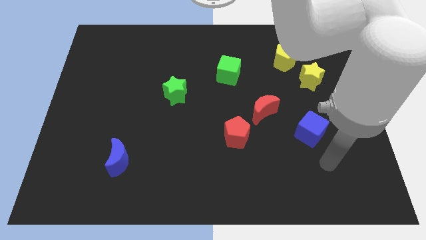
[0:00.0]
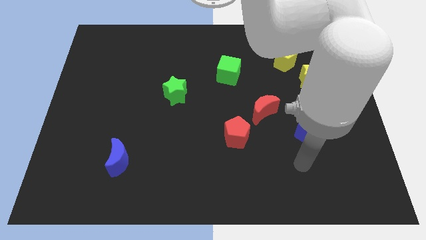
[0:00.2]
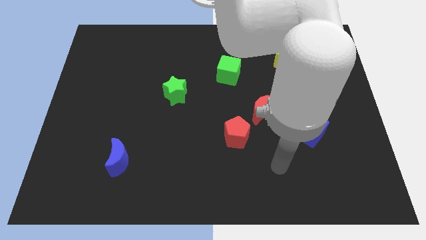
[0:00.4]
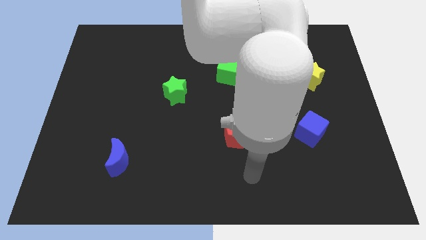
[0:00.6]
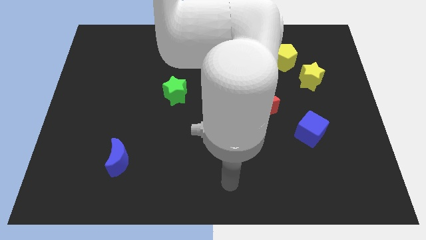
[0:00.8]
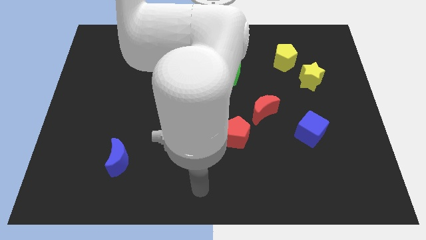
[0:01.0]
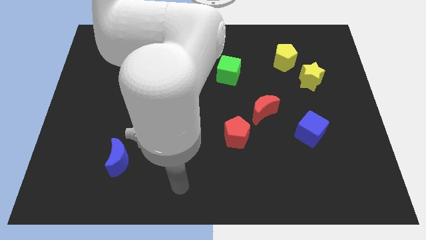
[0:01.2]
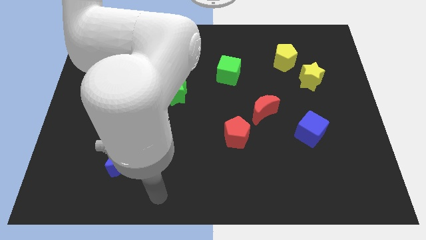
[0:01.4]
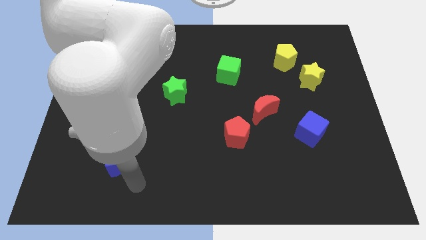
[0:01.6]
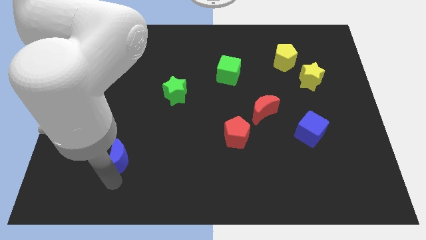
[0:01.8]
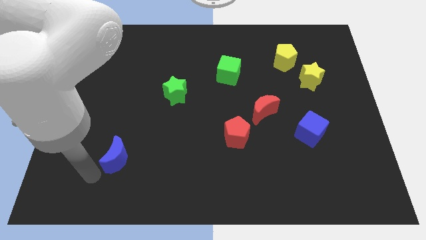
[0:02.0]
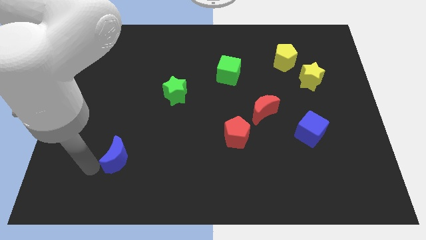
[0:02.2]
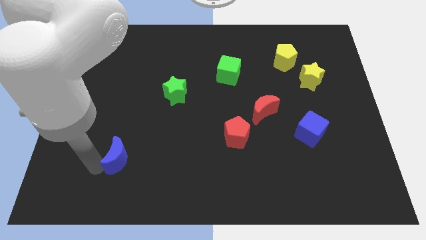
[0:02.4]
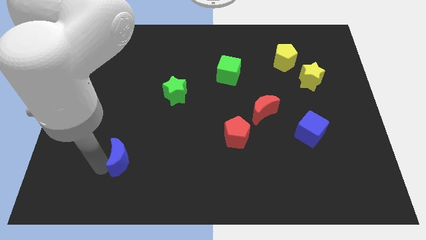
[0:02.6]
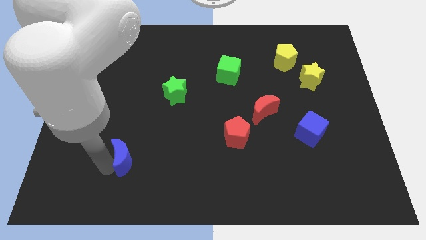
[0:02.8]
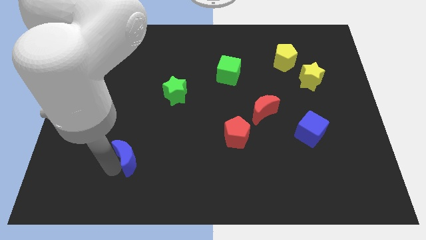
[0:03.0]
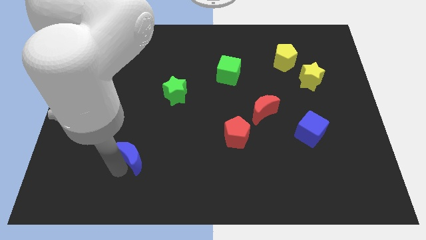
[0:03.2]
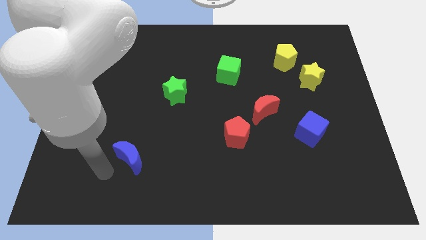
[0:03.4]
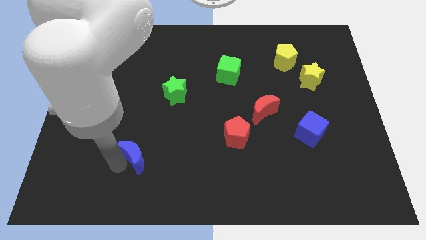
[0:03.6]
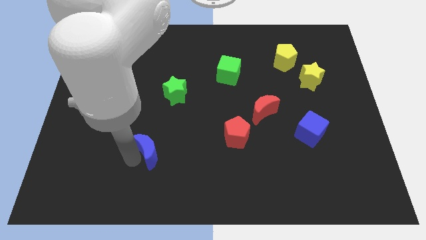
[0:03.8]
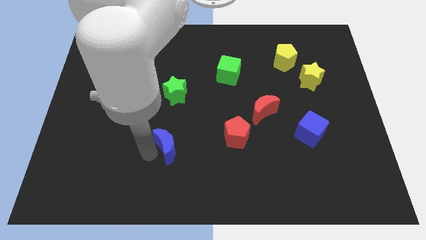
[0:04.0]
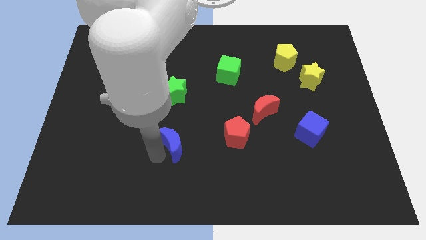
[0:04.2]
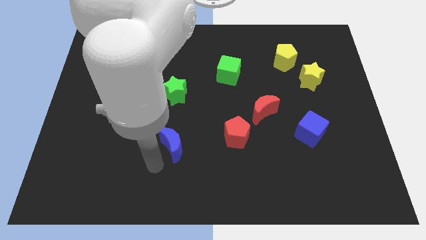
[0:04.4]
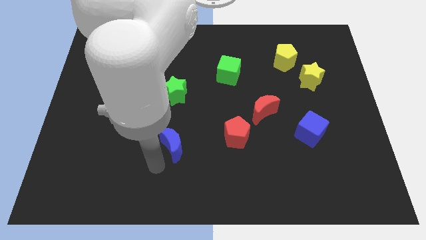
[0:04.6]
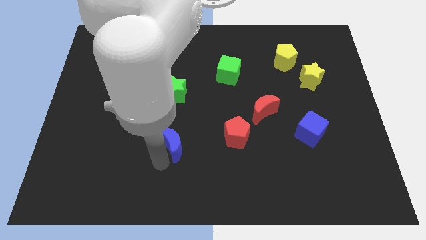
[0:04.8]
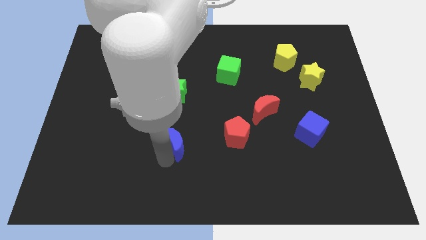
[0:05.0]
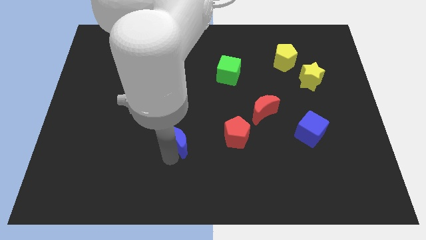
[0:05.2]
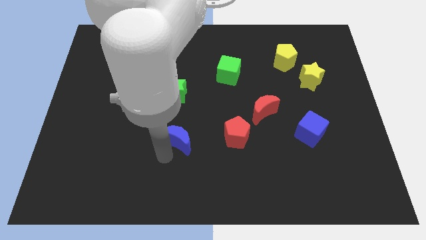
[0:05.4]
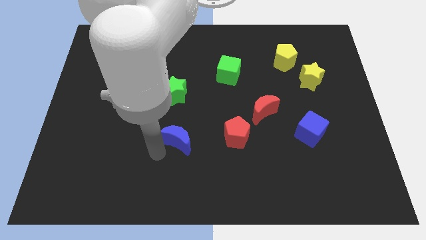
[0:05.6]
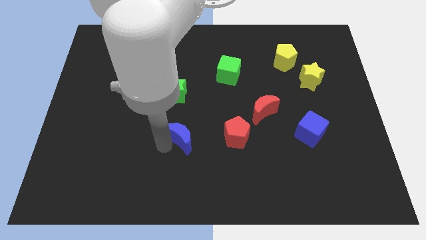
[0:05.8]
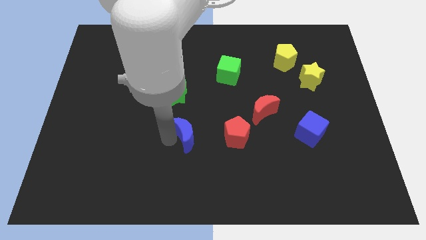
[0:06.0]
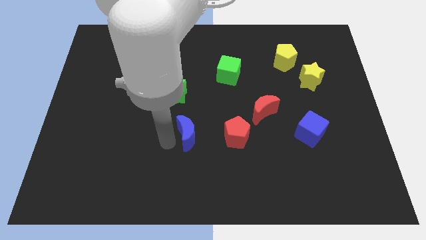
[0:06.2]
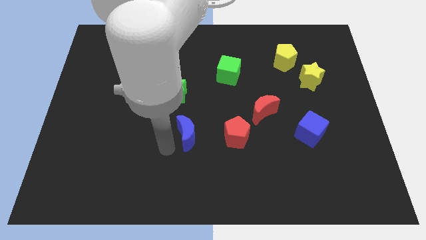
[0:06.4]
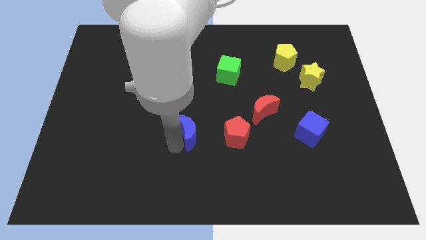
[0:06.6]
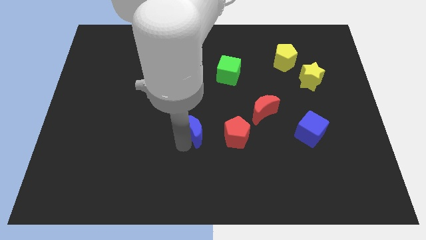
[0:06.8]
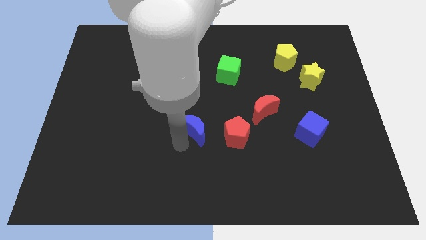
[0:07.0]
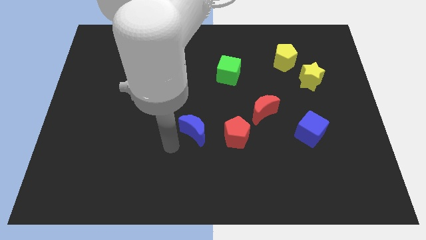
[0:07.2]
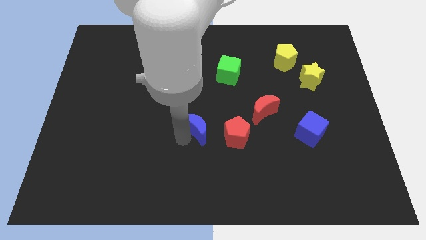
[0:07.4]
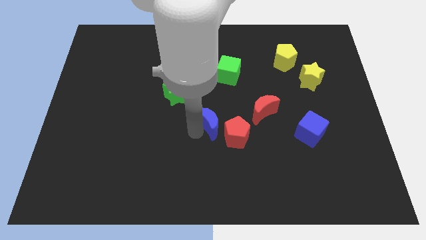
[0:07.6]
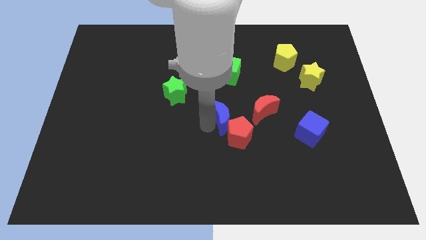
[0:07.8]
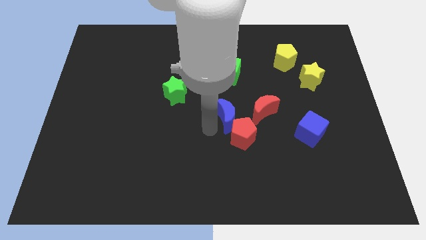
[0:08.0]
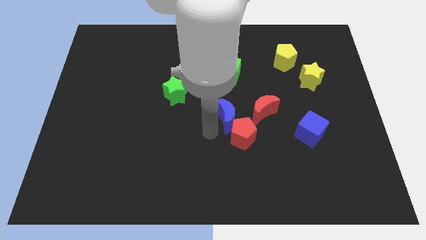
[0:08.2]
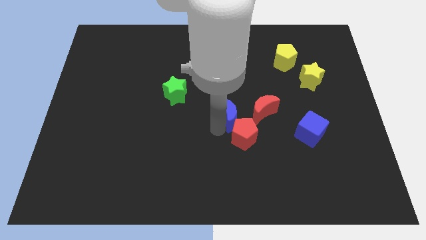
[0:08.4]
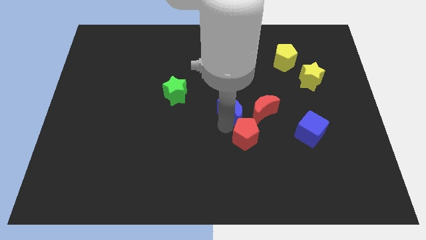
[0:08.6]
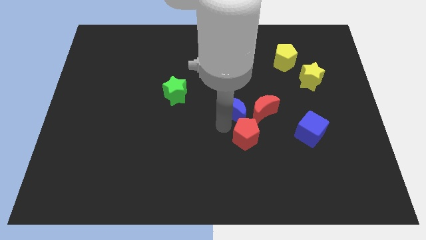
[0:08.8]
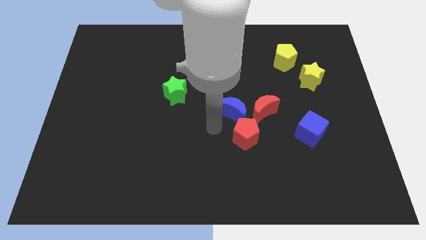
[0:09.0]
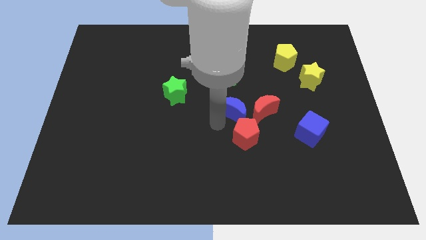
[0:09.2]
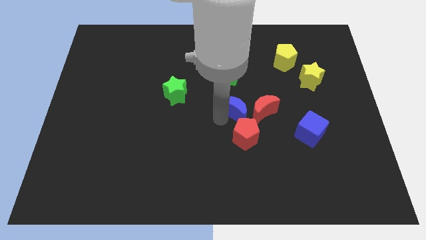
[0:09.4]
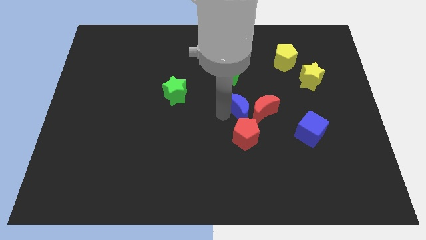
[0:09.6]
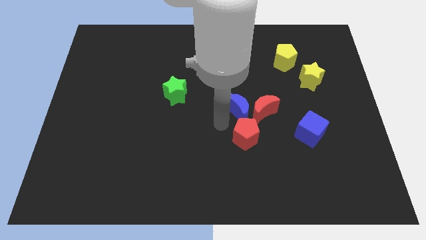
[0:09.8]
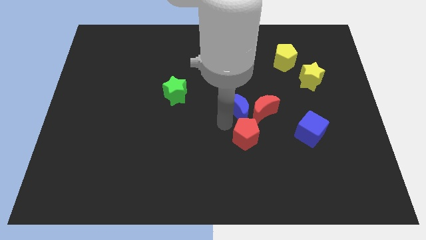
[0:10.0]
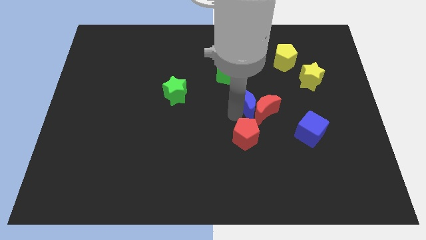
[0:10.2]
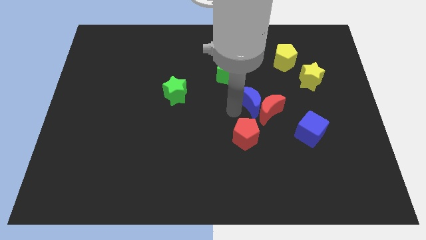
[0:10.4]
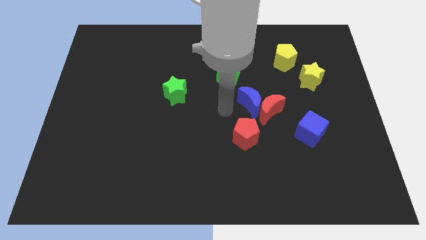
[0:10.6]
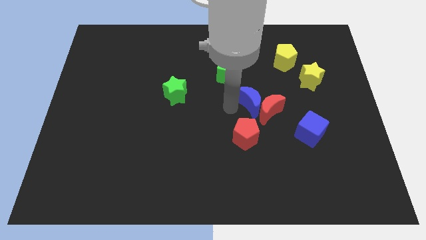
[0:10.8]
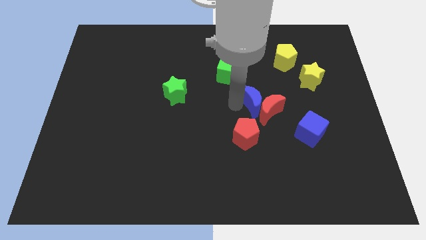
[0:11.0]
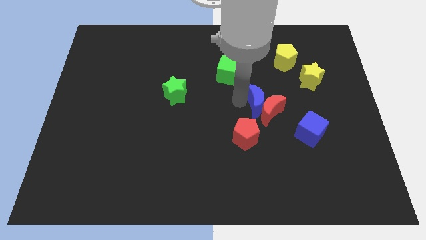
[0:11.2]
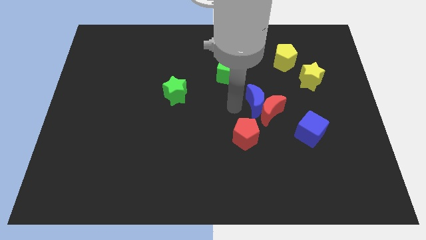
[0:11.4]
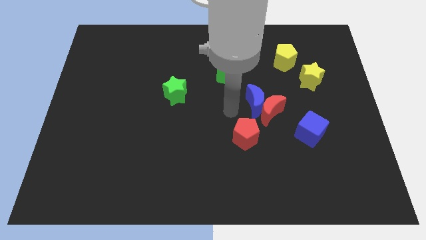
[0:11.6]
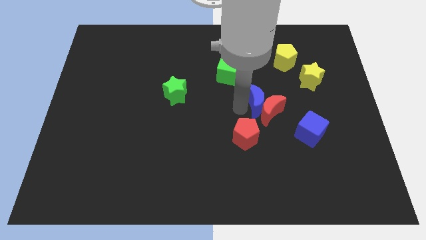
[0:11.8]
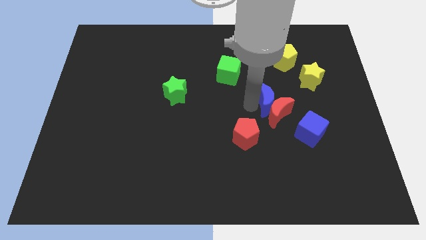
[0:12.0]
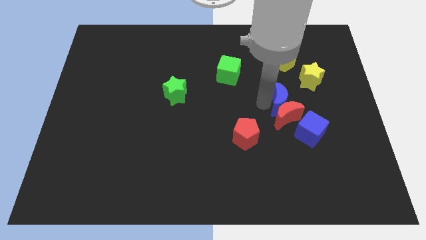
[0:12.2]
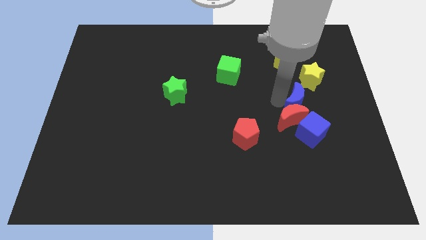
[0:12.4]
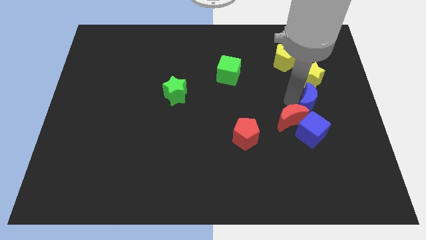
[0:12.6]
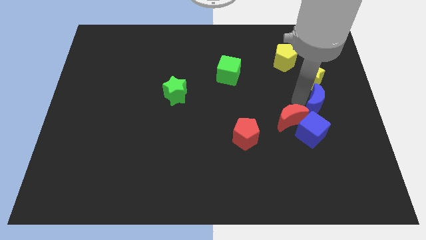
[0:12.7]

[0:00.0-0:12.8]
put the blue moon to the top right side of the blue cube
